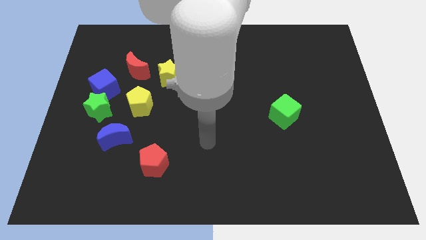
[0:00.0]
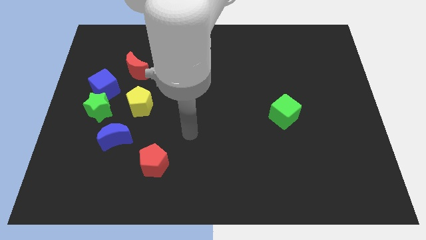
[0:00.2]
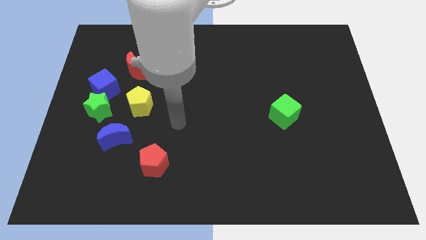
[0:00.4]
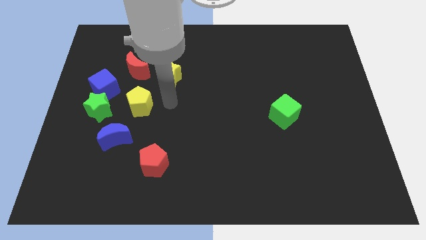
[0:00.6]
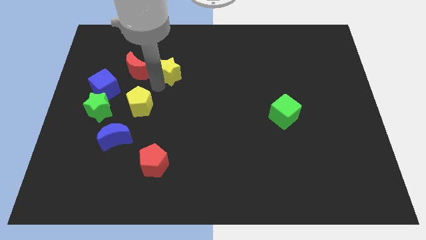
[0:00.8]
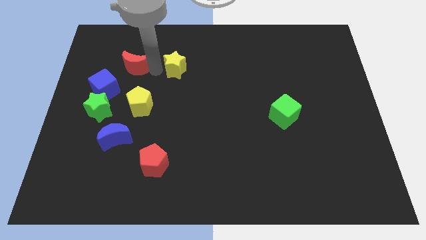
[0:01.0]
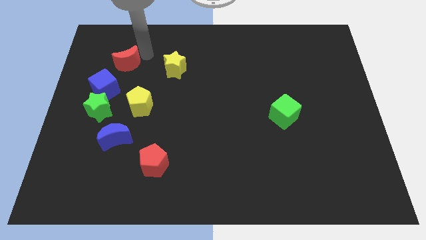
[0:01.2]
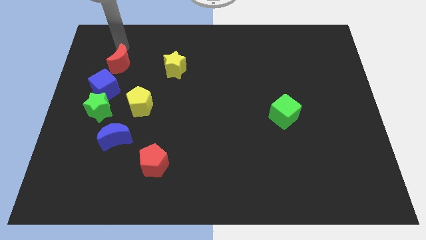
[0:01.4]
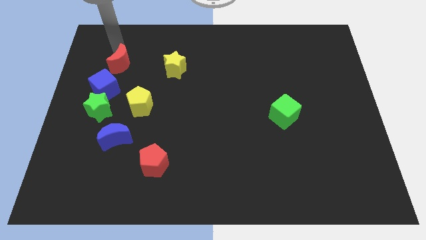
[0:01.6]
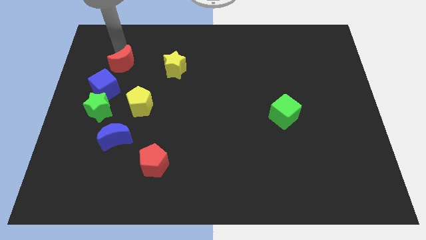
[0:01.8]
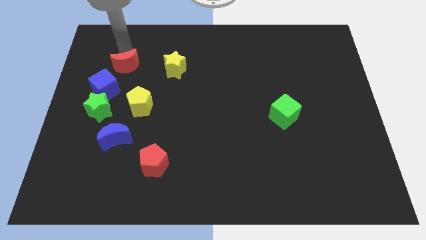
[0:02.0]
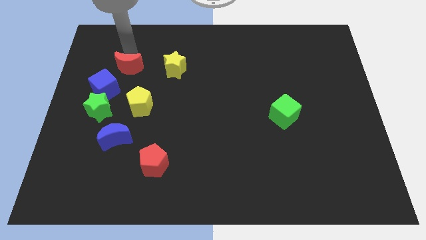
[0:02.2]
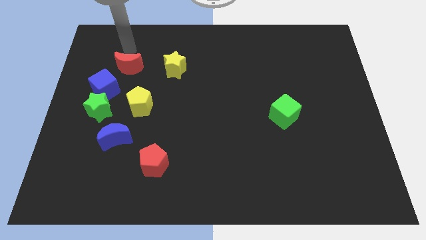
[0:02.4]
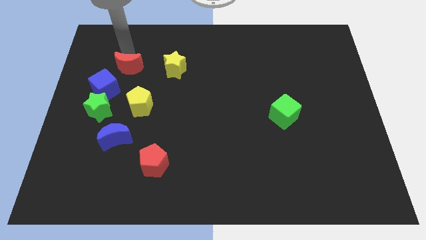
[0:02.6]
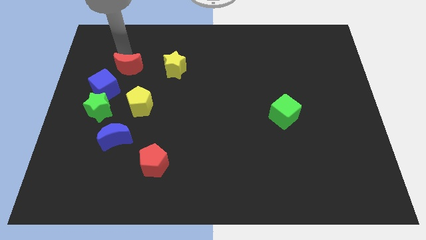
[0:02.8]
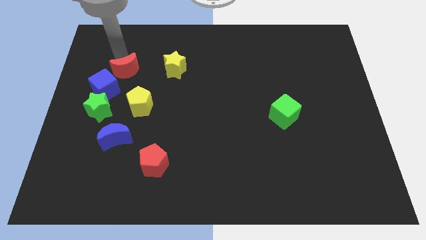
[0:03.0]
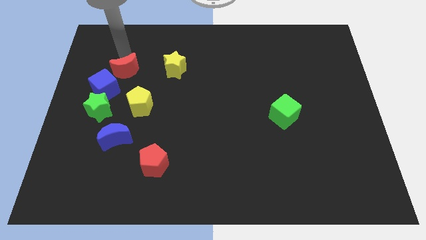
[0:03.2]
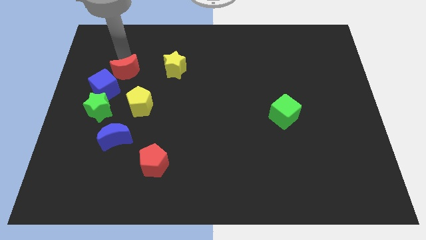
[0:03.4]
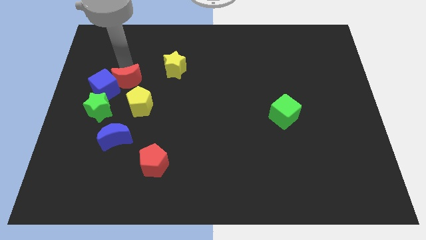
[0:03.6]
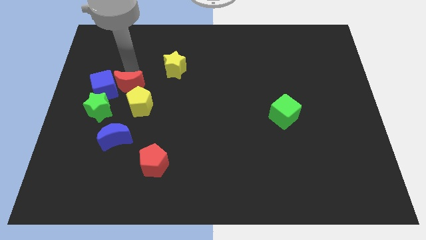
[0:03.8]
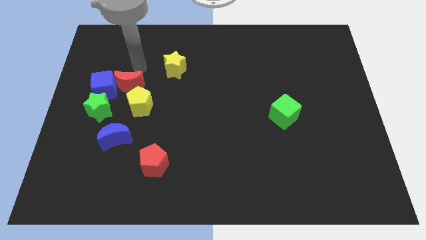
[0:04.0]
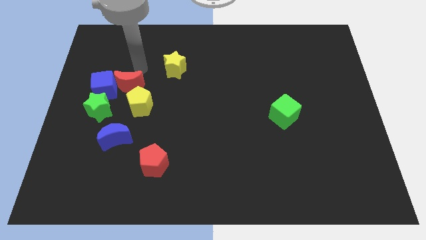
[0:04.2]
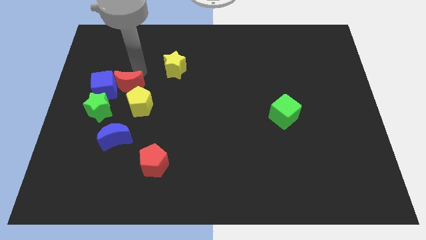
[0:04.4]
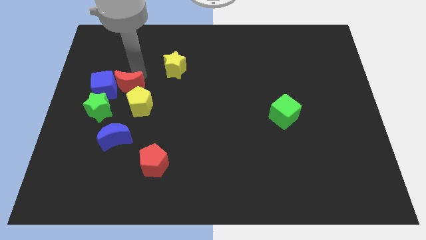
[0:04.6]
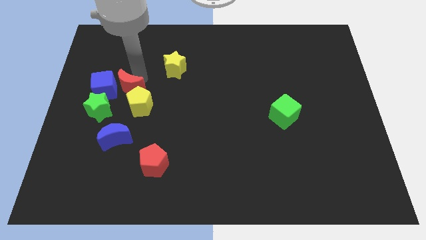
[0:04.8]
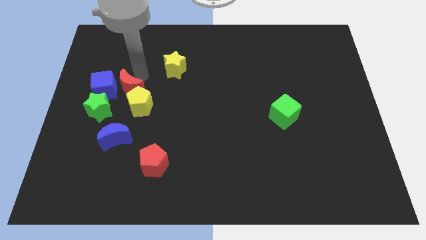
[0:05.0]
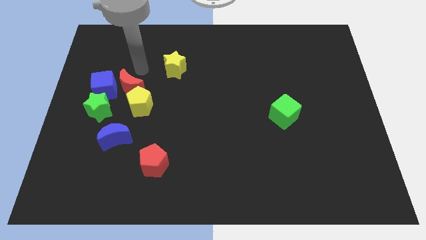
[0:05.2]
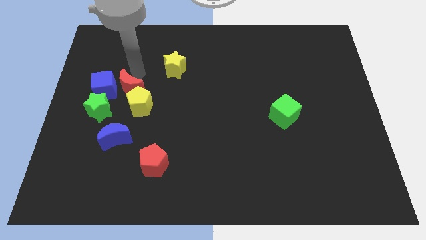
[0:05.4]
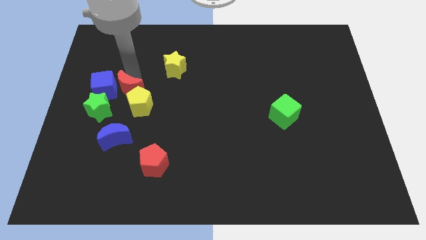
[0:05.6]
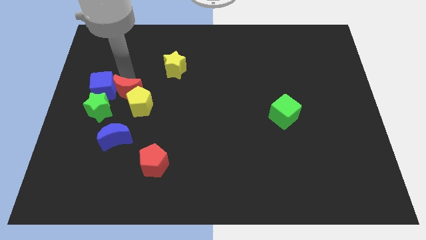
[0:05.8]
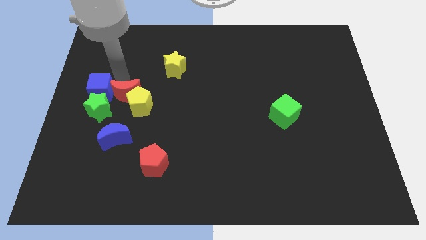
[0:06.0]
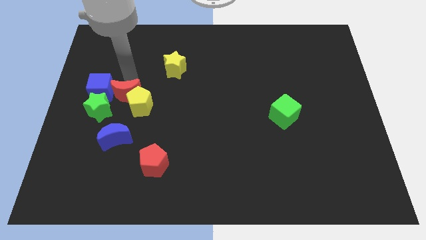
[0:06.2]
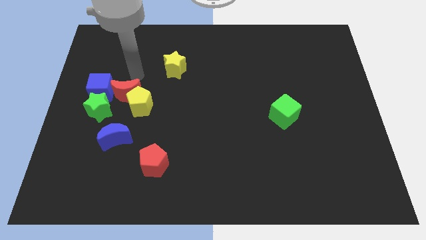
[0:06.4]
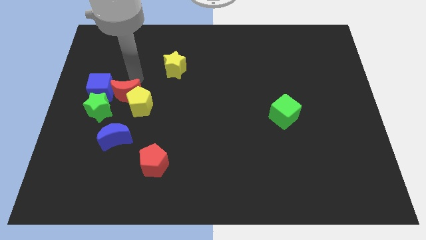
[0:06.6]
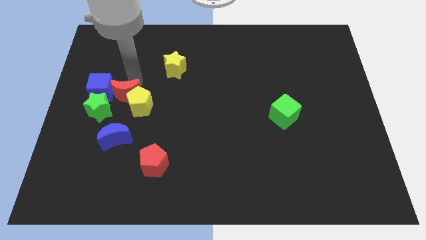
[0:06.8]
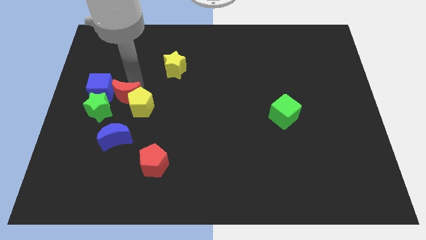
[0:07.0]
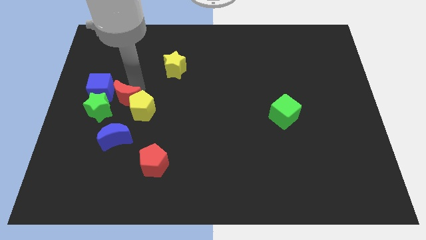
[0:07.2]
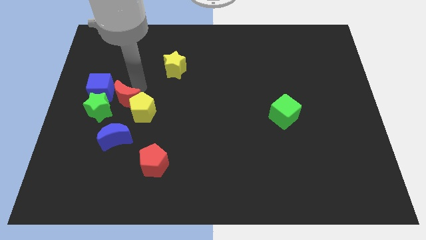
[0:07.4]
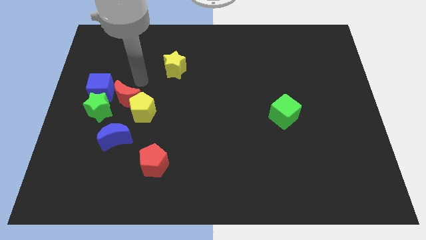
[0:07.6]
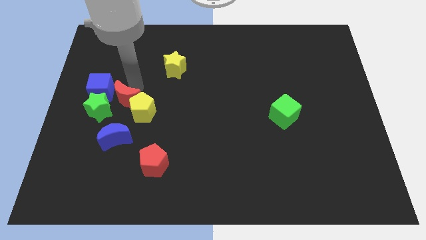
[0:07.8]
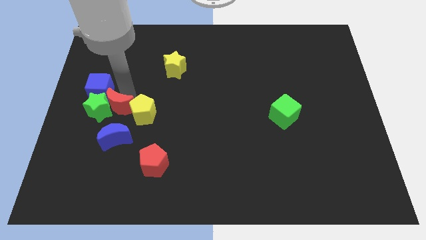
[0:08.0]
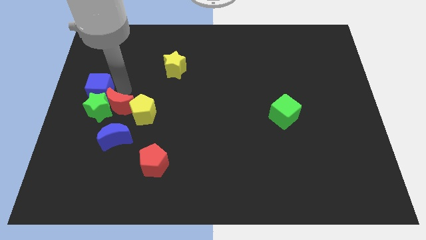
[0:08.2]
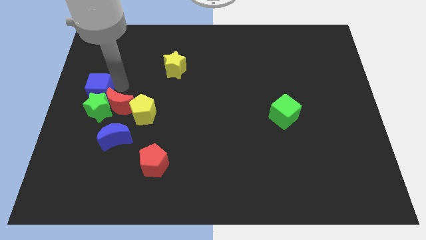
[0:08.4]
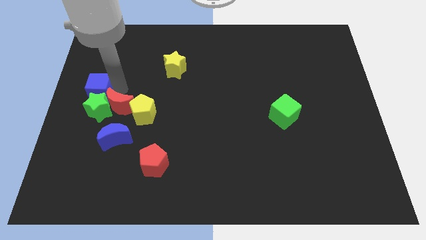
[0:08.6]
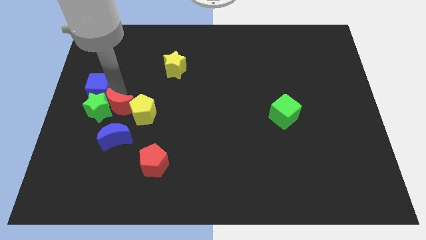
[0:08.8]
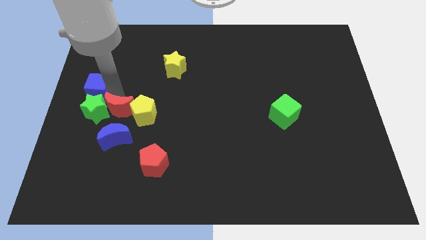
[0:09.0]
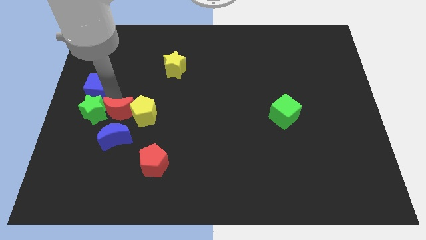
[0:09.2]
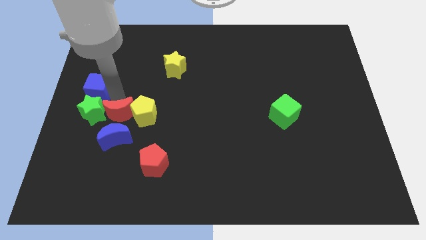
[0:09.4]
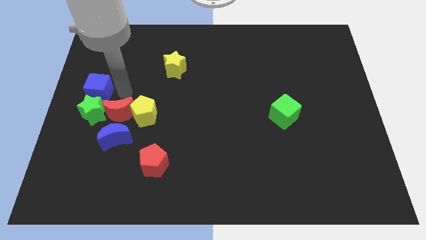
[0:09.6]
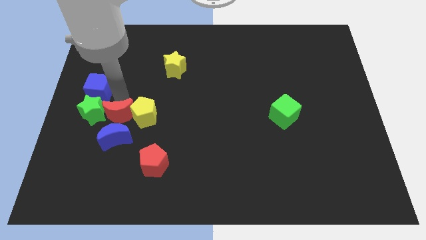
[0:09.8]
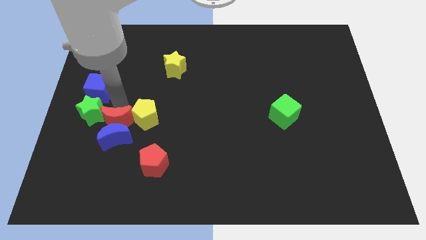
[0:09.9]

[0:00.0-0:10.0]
put the red moon close to the blue moon

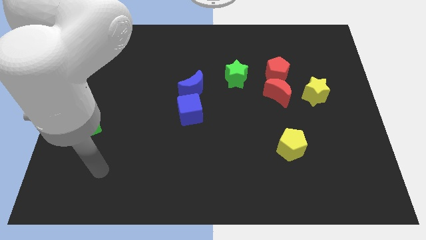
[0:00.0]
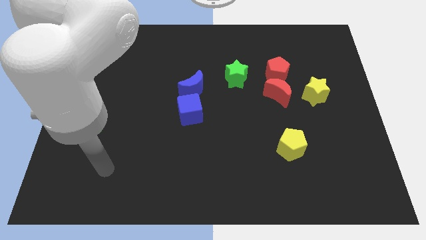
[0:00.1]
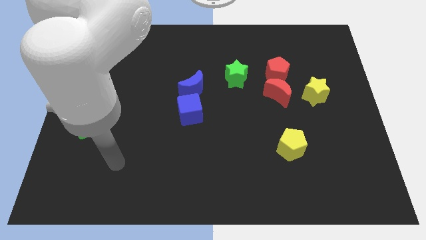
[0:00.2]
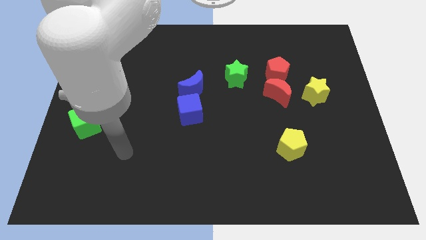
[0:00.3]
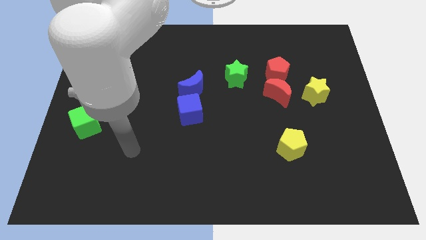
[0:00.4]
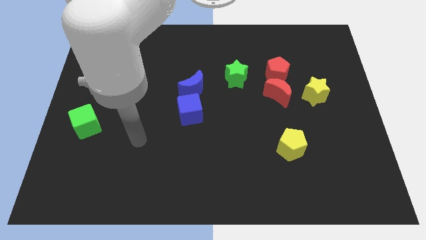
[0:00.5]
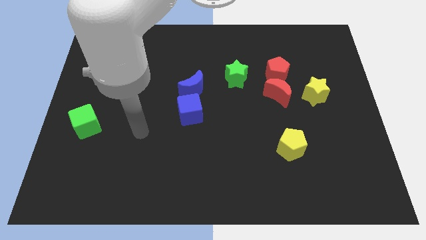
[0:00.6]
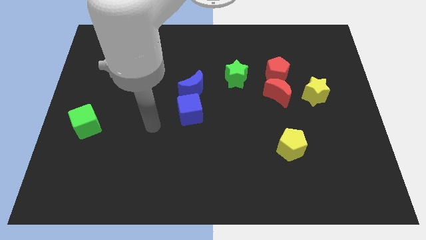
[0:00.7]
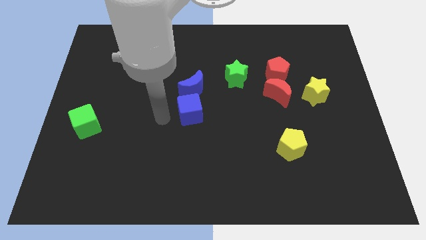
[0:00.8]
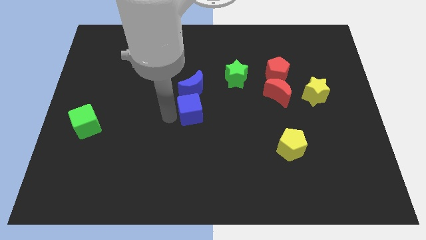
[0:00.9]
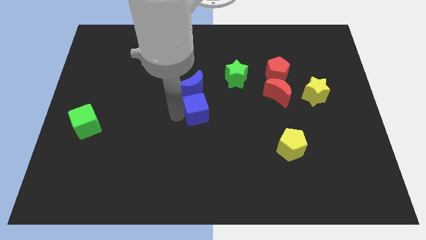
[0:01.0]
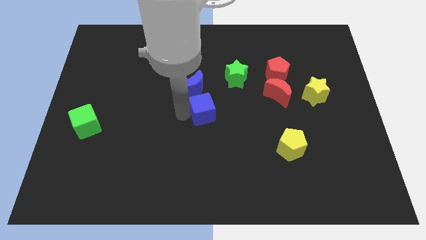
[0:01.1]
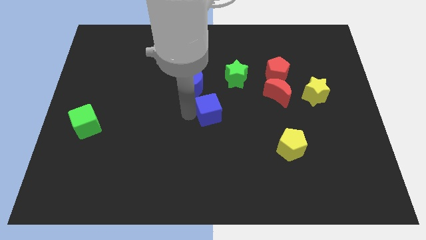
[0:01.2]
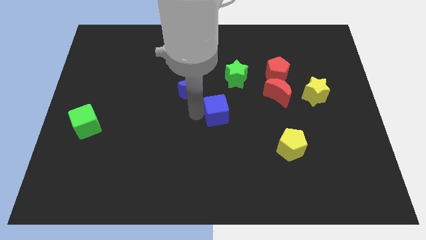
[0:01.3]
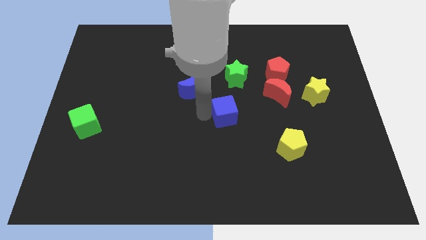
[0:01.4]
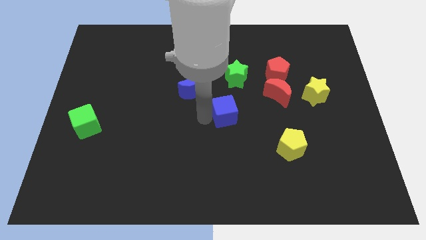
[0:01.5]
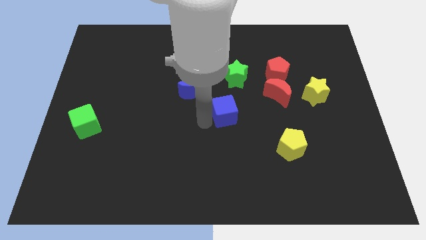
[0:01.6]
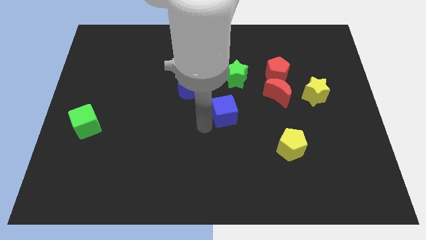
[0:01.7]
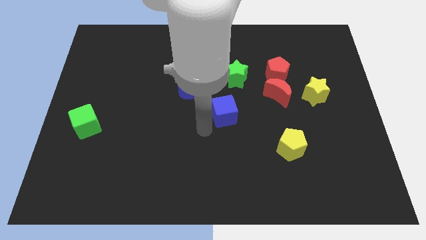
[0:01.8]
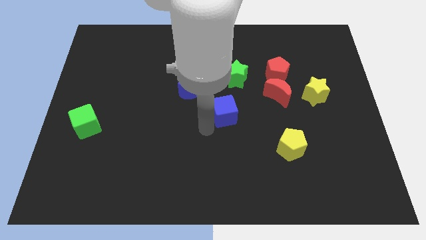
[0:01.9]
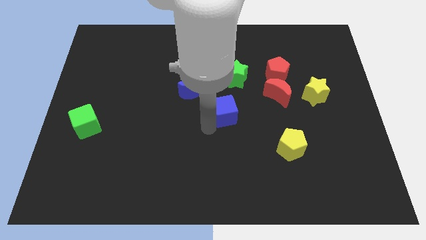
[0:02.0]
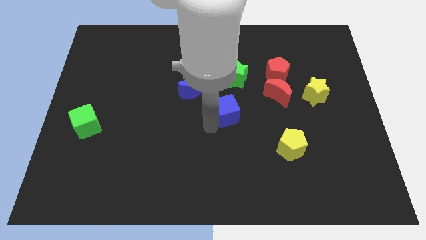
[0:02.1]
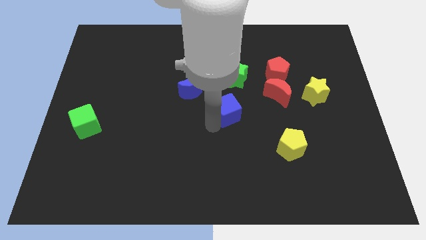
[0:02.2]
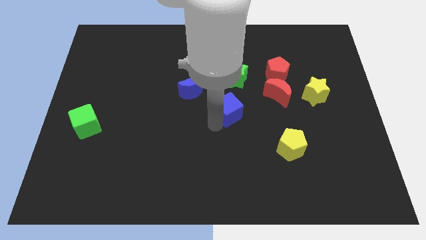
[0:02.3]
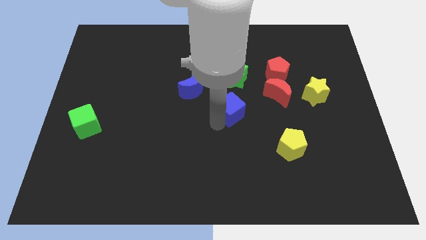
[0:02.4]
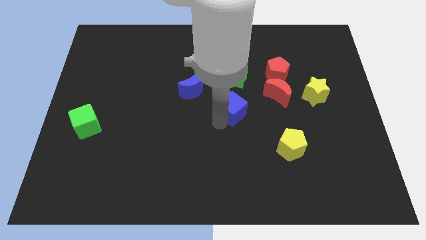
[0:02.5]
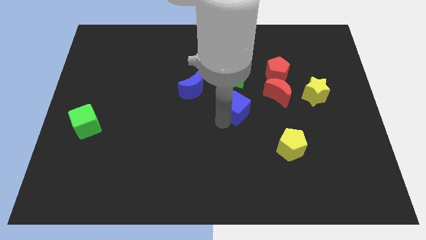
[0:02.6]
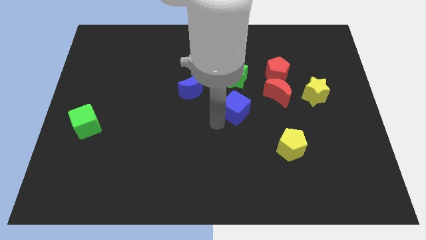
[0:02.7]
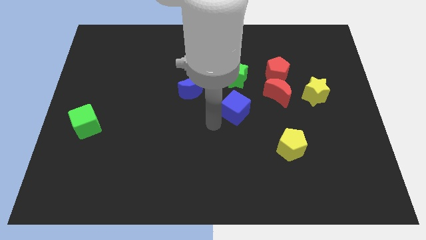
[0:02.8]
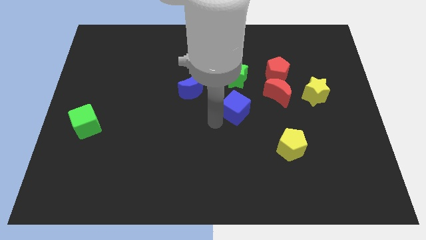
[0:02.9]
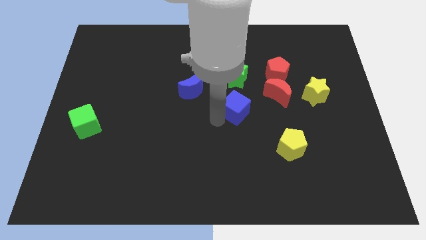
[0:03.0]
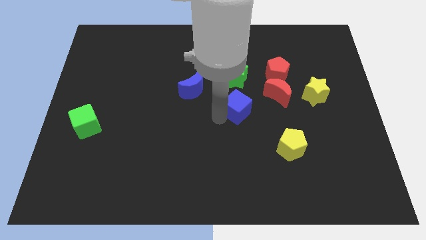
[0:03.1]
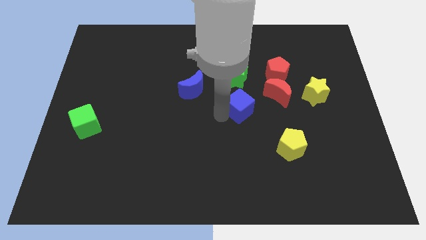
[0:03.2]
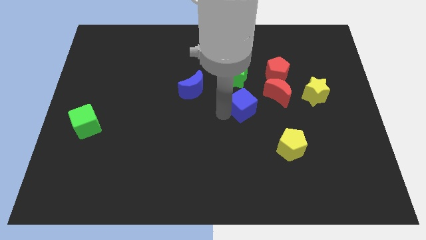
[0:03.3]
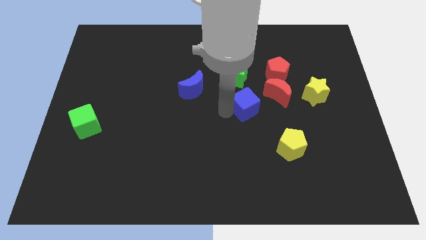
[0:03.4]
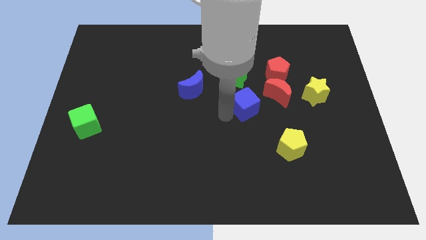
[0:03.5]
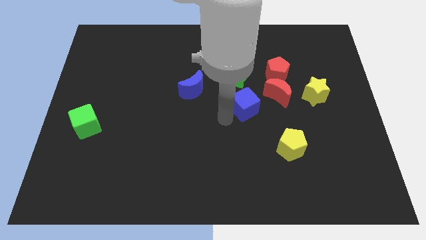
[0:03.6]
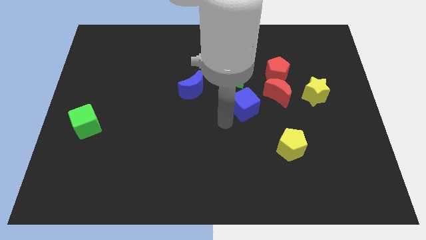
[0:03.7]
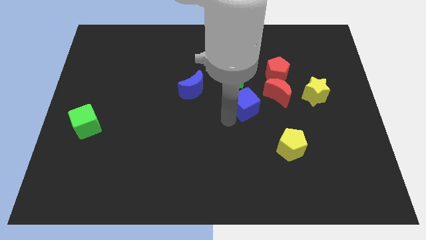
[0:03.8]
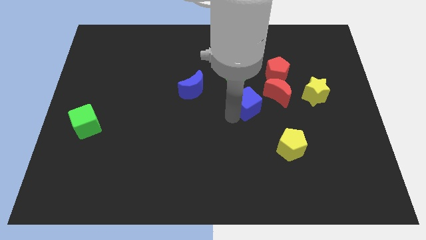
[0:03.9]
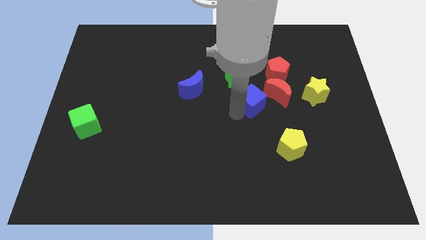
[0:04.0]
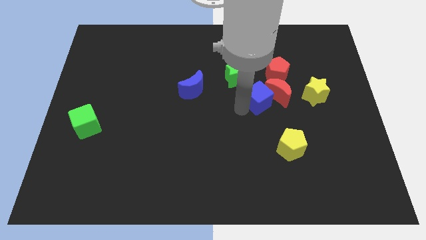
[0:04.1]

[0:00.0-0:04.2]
put the blue cube to the red moon
